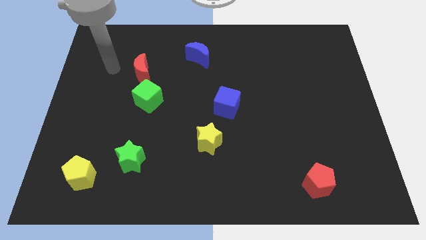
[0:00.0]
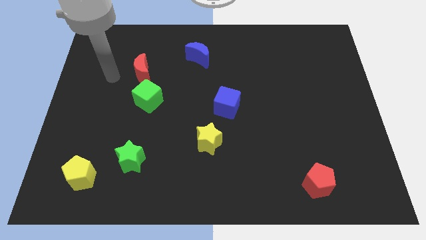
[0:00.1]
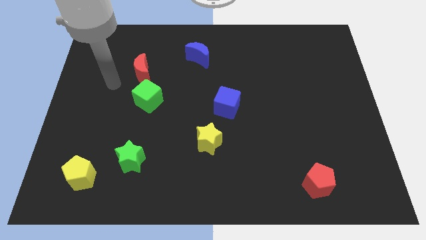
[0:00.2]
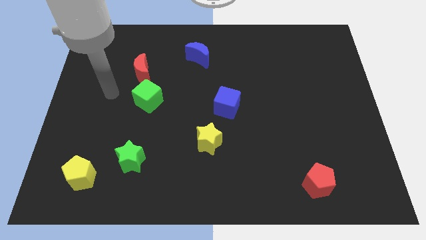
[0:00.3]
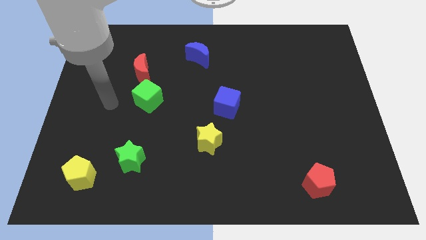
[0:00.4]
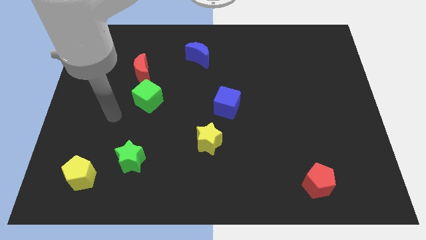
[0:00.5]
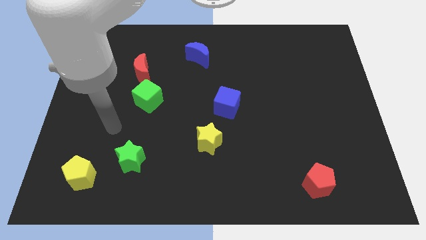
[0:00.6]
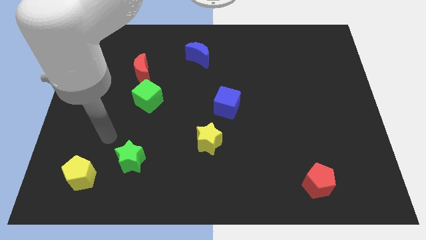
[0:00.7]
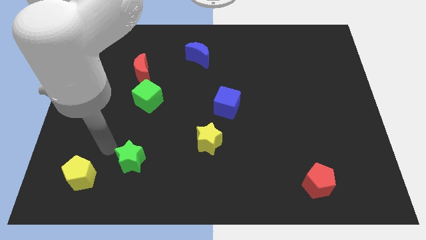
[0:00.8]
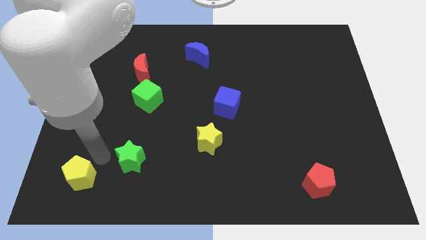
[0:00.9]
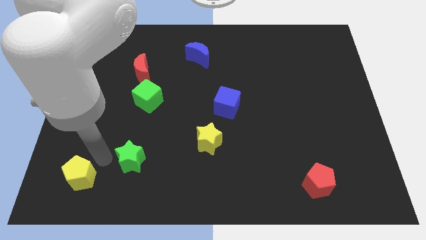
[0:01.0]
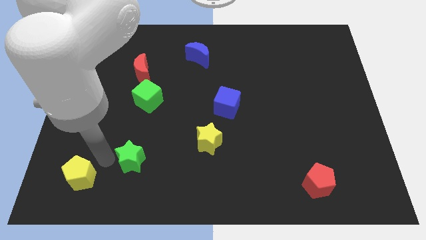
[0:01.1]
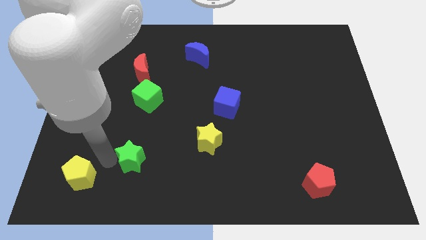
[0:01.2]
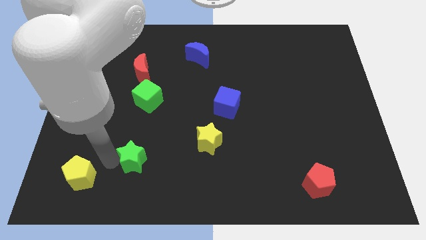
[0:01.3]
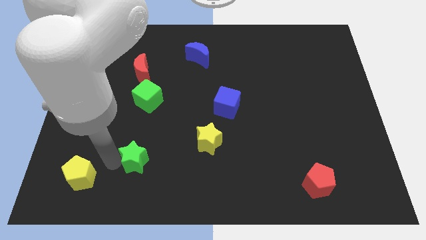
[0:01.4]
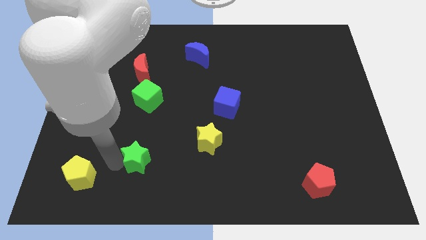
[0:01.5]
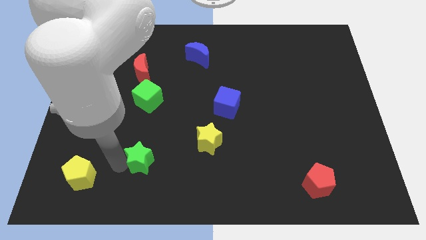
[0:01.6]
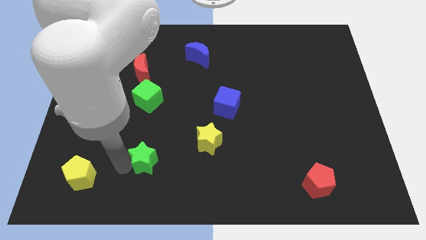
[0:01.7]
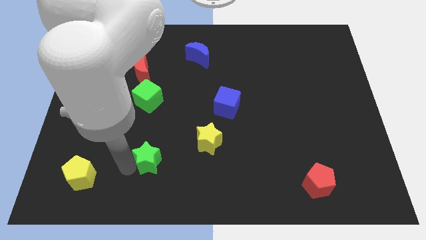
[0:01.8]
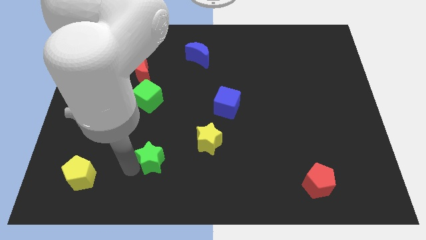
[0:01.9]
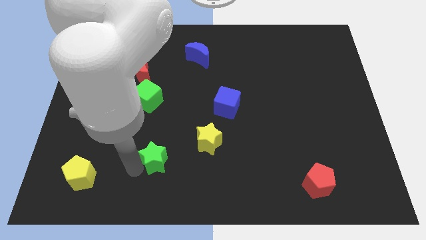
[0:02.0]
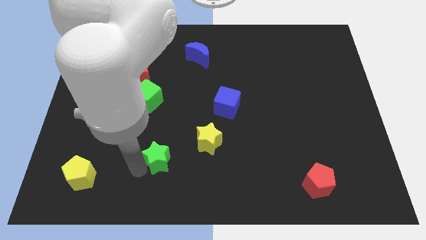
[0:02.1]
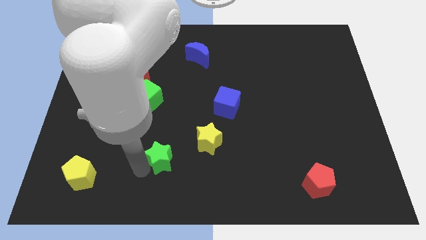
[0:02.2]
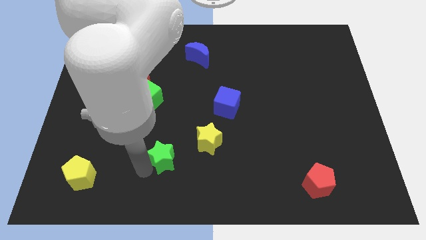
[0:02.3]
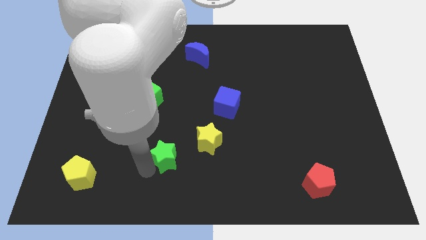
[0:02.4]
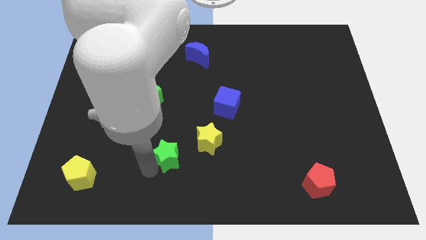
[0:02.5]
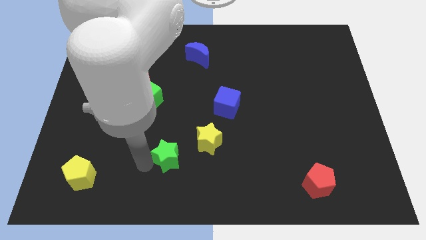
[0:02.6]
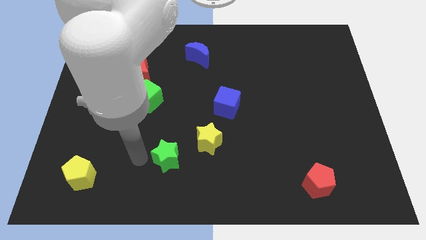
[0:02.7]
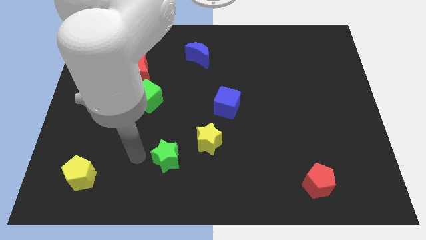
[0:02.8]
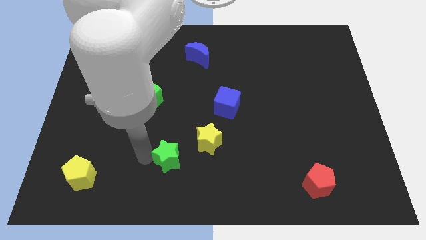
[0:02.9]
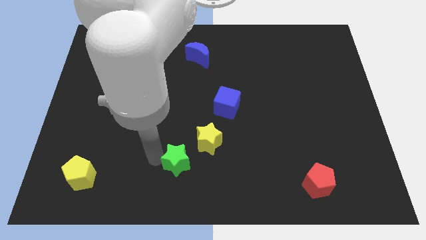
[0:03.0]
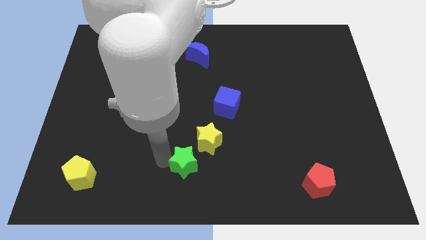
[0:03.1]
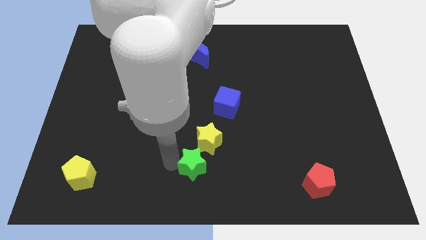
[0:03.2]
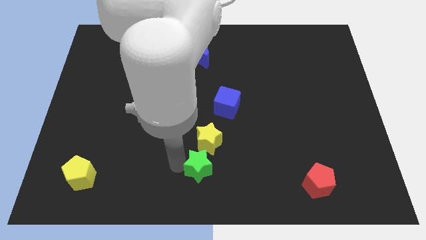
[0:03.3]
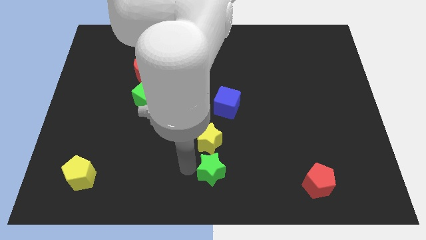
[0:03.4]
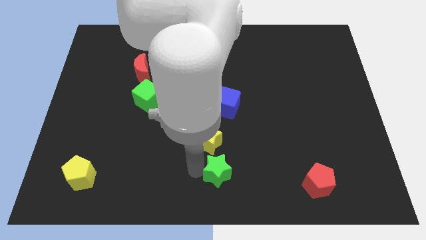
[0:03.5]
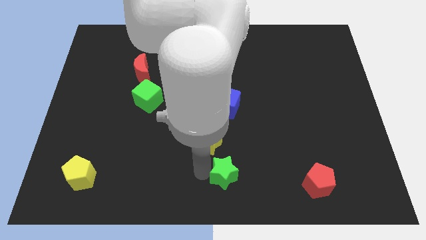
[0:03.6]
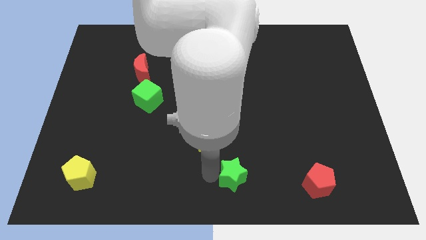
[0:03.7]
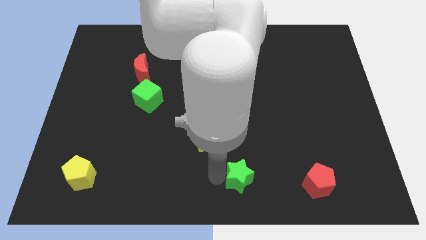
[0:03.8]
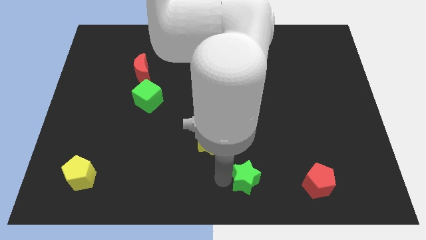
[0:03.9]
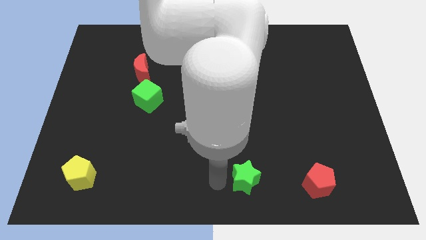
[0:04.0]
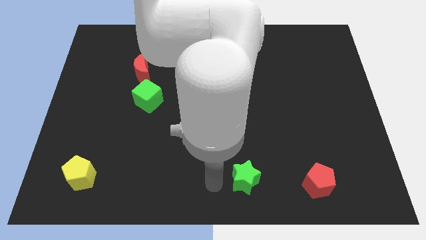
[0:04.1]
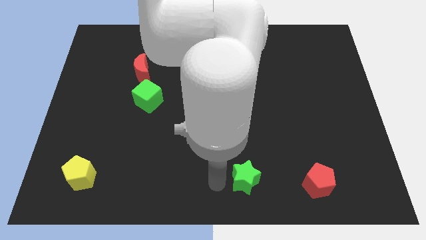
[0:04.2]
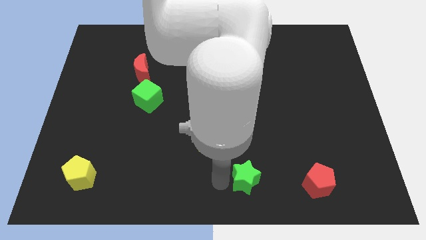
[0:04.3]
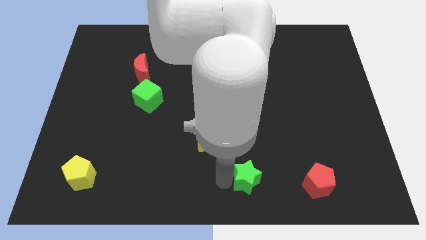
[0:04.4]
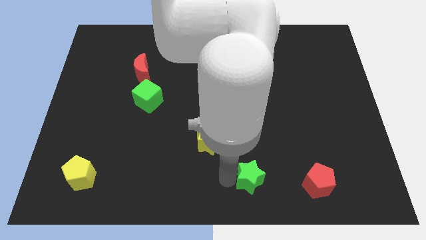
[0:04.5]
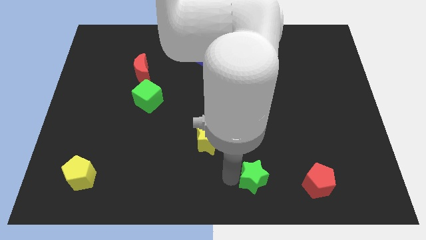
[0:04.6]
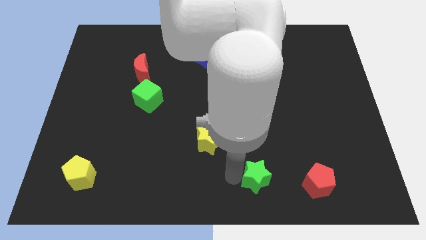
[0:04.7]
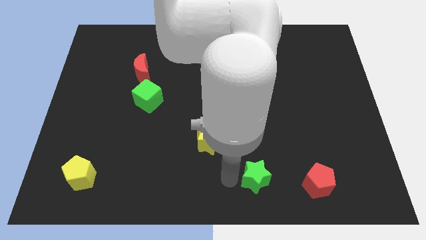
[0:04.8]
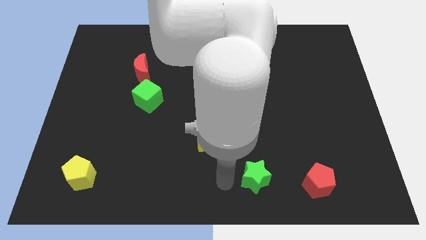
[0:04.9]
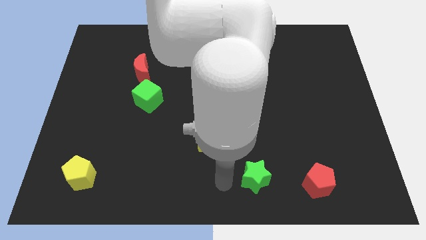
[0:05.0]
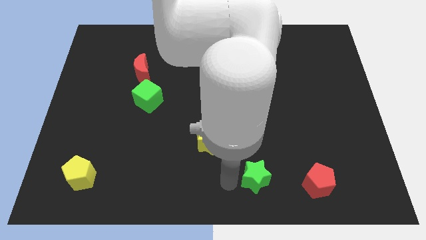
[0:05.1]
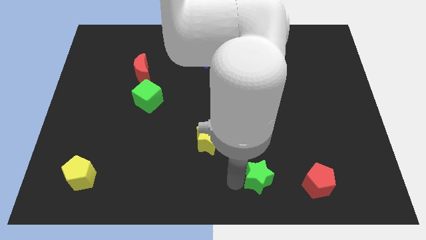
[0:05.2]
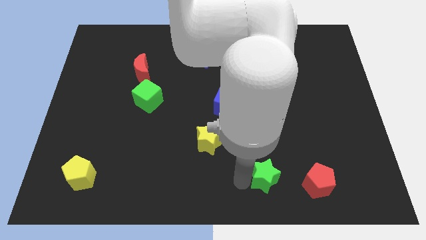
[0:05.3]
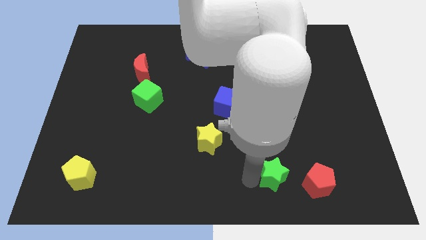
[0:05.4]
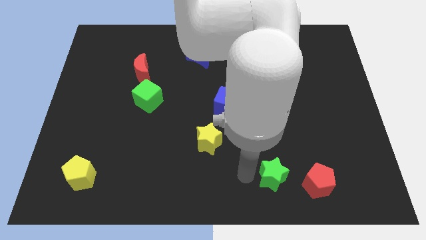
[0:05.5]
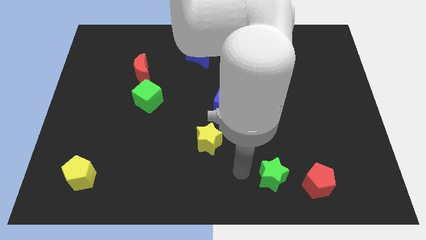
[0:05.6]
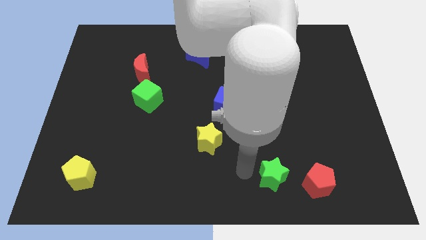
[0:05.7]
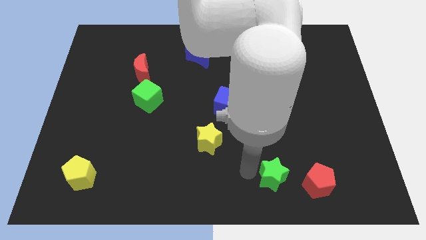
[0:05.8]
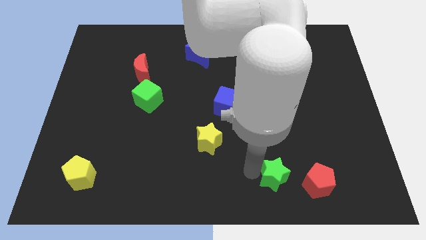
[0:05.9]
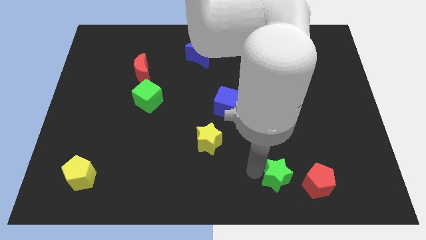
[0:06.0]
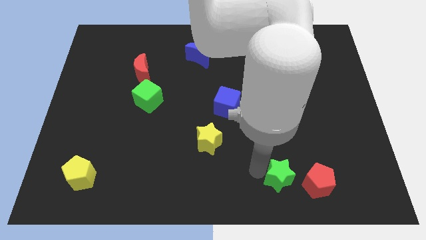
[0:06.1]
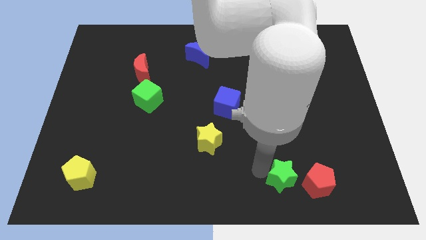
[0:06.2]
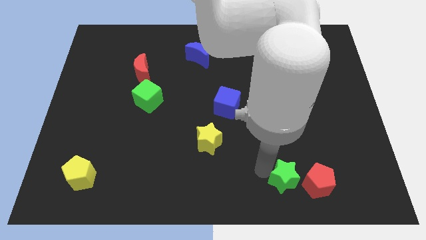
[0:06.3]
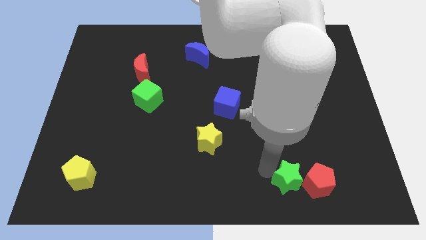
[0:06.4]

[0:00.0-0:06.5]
push the green star close to the red pentagon

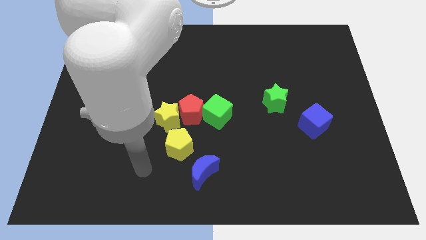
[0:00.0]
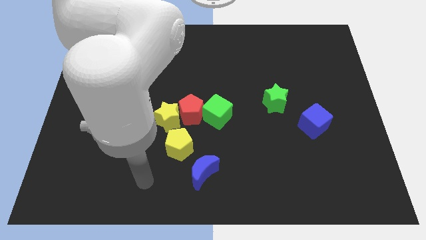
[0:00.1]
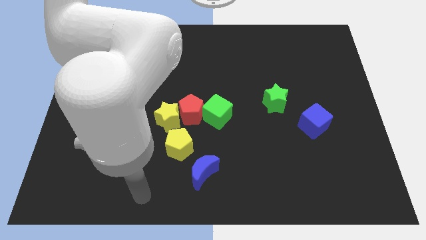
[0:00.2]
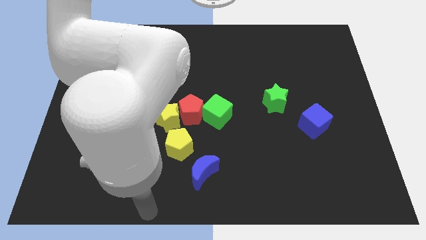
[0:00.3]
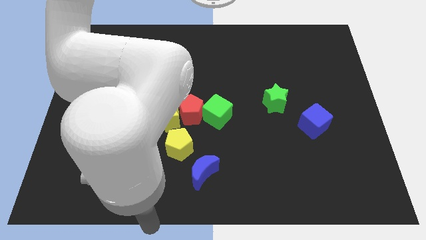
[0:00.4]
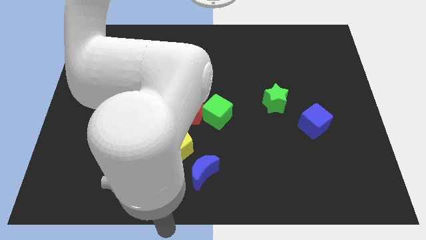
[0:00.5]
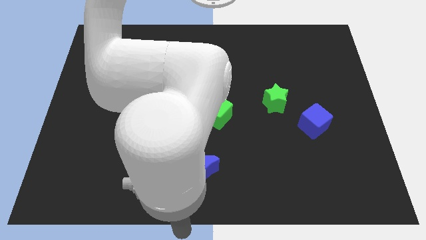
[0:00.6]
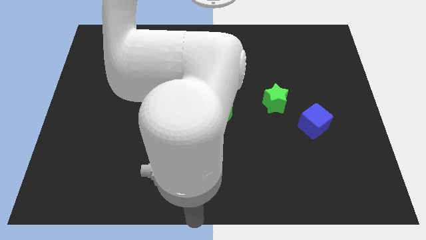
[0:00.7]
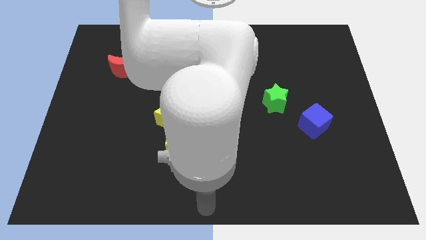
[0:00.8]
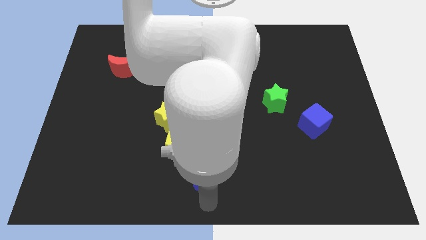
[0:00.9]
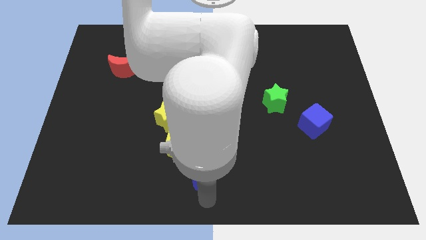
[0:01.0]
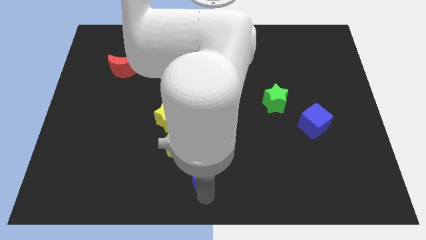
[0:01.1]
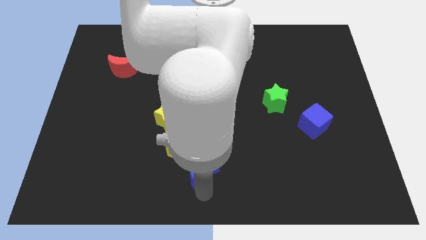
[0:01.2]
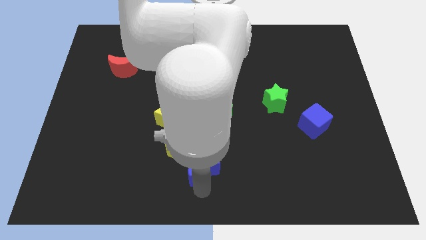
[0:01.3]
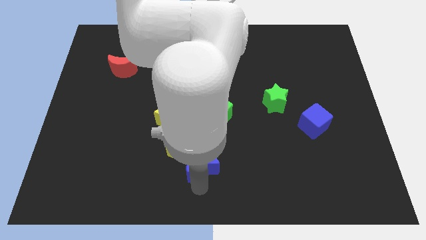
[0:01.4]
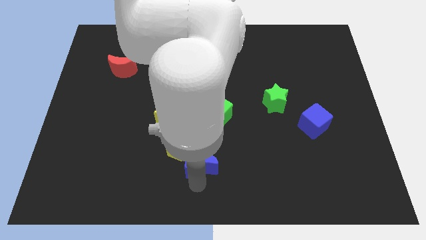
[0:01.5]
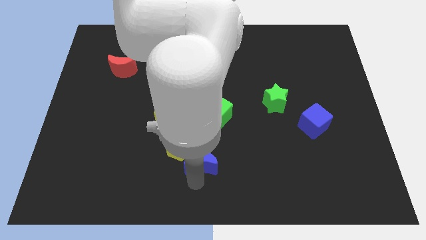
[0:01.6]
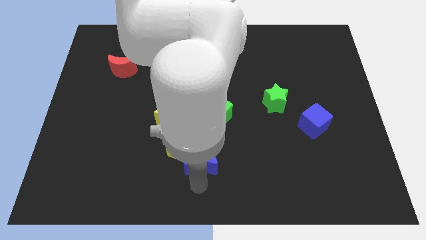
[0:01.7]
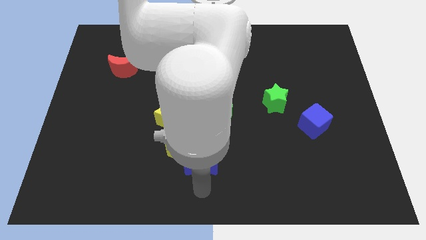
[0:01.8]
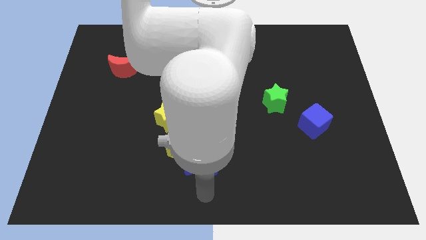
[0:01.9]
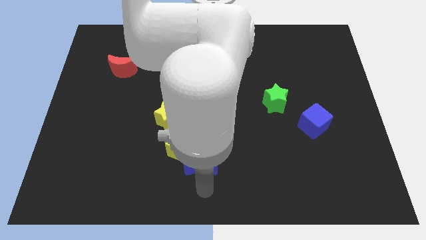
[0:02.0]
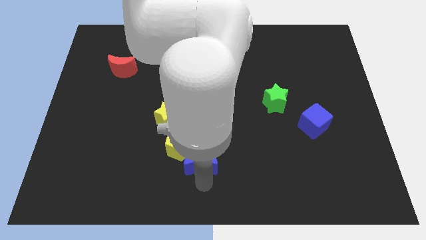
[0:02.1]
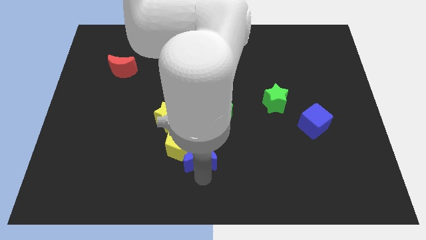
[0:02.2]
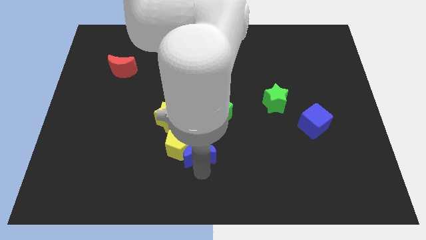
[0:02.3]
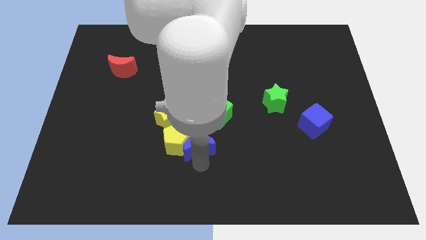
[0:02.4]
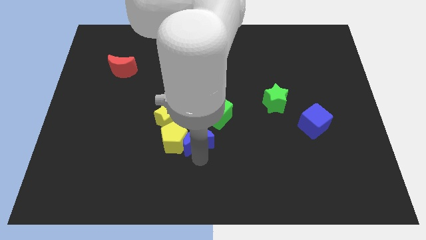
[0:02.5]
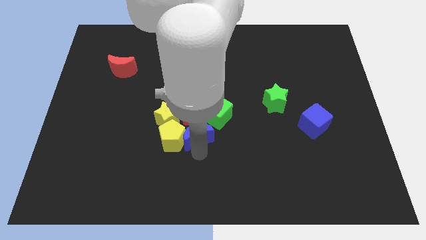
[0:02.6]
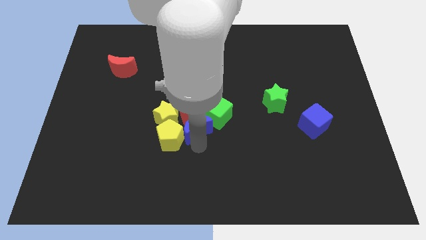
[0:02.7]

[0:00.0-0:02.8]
move the blue moon close to the red pentagon
